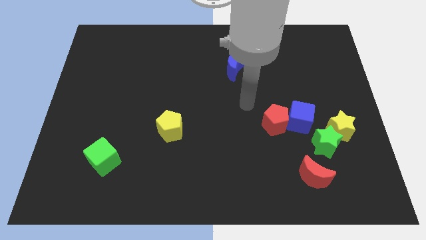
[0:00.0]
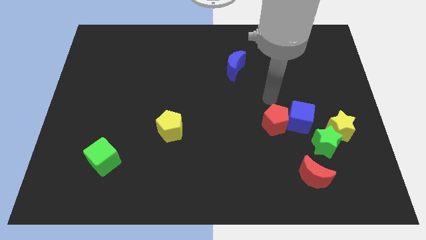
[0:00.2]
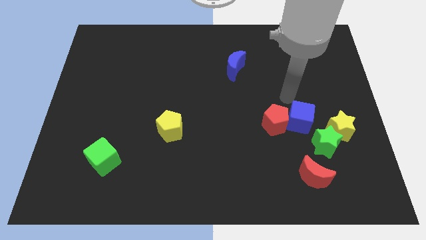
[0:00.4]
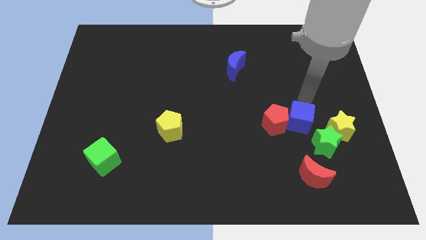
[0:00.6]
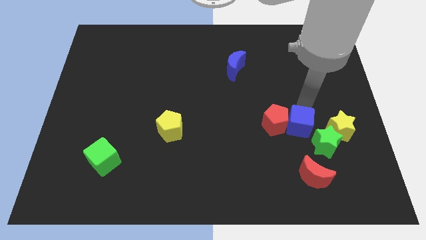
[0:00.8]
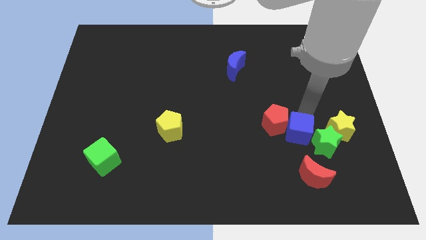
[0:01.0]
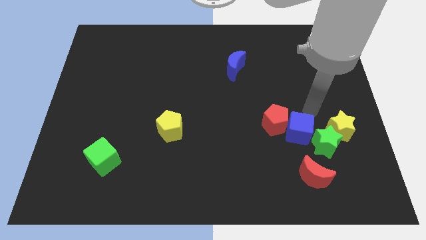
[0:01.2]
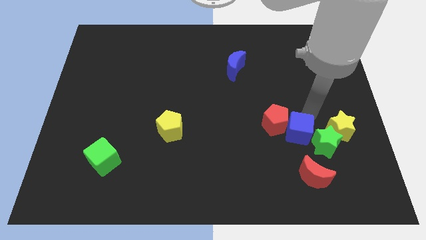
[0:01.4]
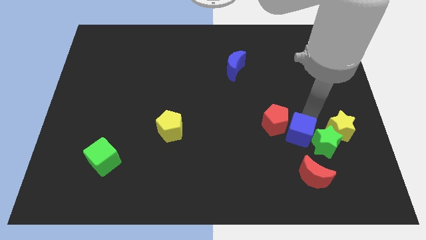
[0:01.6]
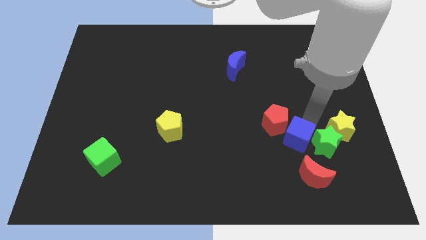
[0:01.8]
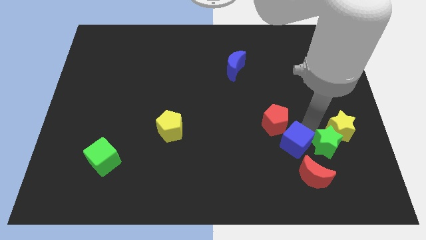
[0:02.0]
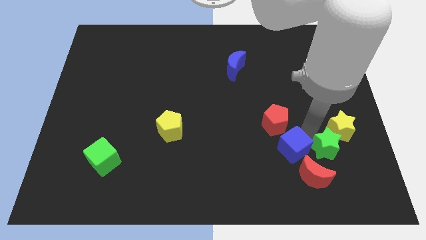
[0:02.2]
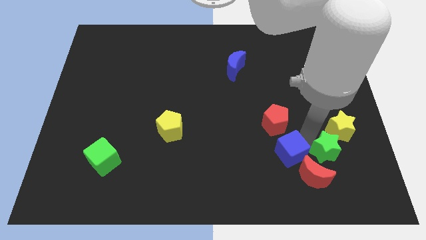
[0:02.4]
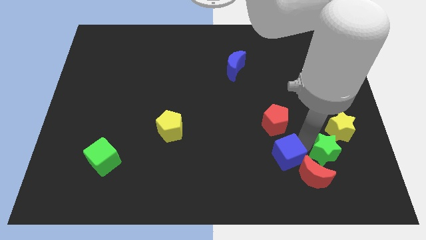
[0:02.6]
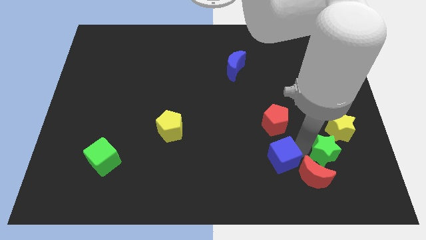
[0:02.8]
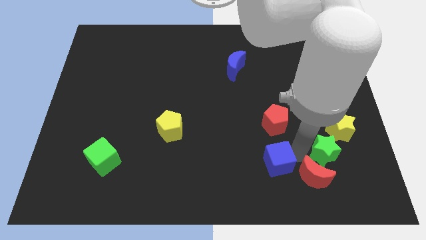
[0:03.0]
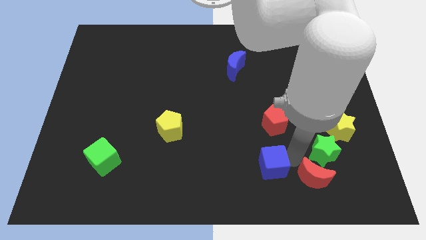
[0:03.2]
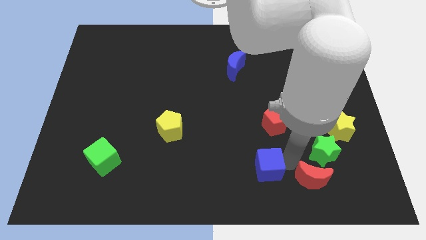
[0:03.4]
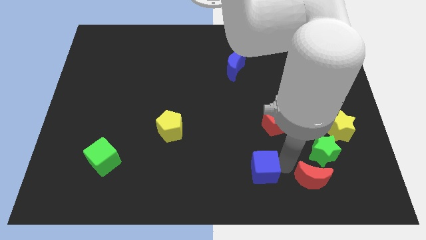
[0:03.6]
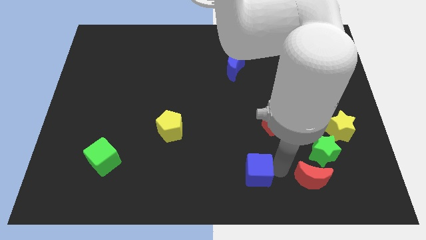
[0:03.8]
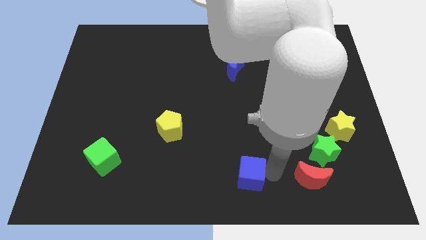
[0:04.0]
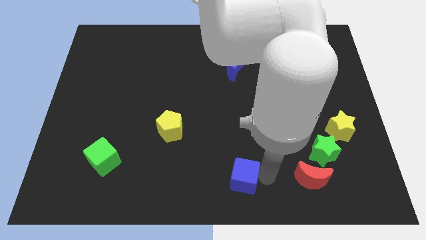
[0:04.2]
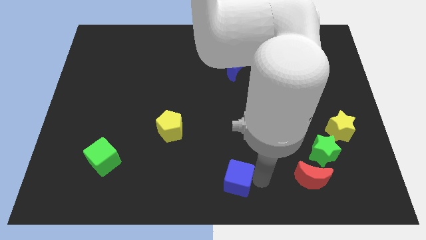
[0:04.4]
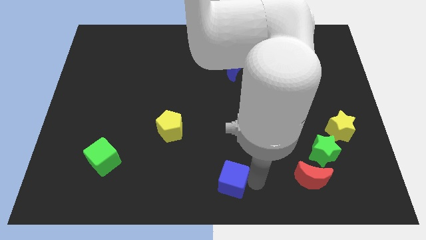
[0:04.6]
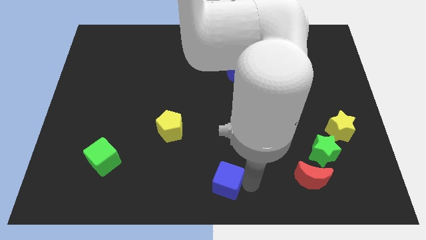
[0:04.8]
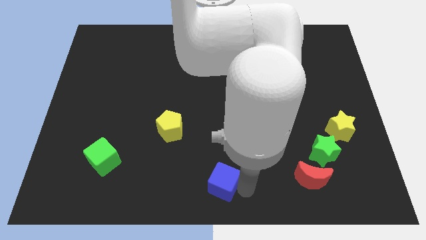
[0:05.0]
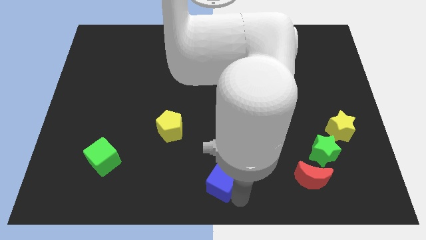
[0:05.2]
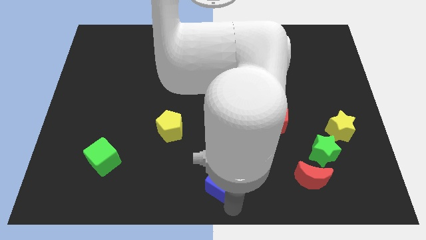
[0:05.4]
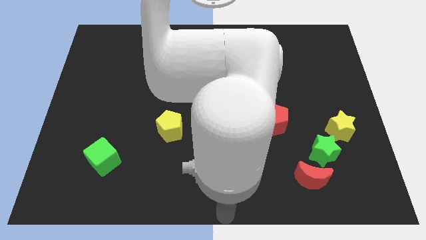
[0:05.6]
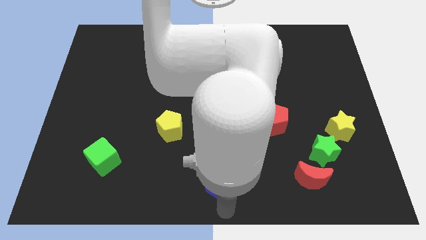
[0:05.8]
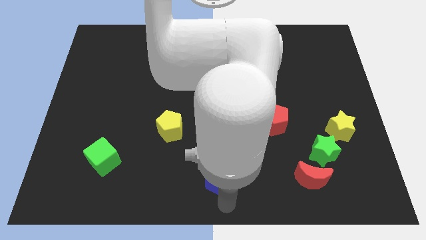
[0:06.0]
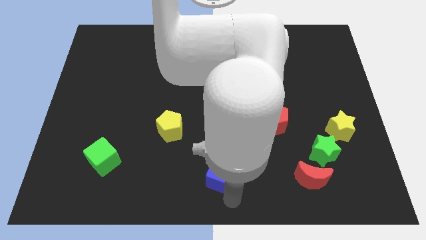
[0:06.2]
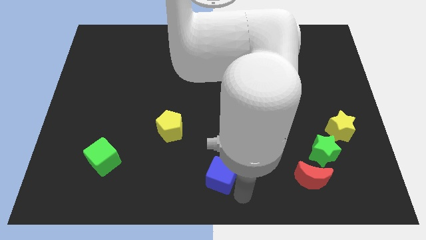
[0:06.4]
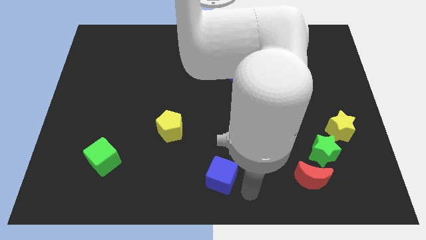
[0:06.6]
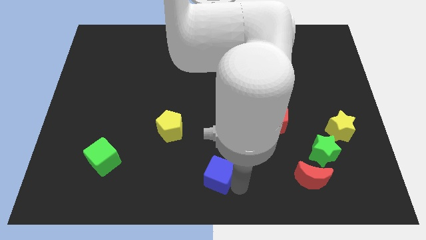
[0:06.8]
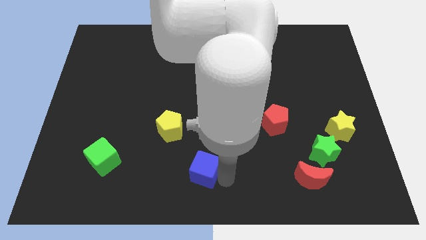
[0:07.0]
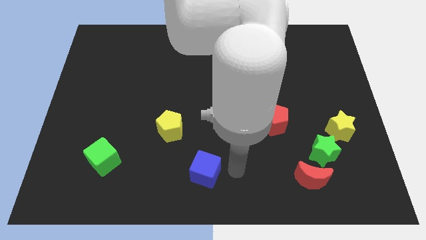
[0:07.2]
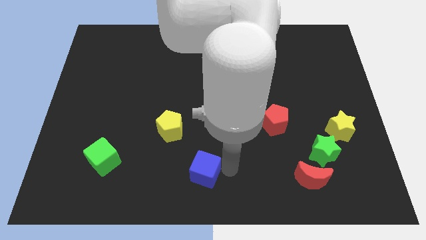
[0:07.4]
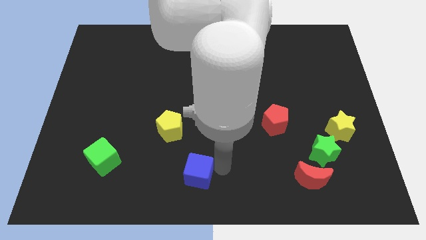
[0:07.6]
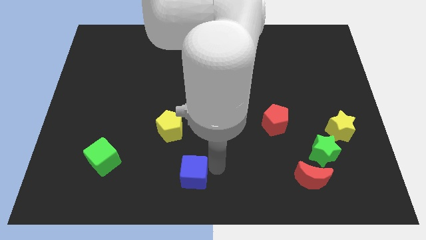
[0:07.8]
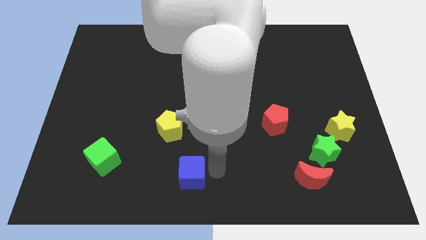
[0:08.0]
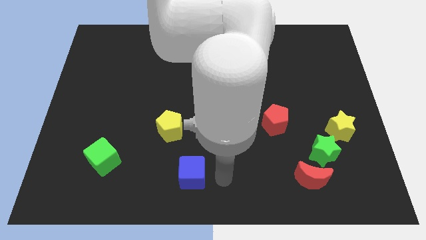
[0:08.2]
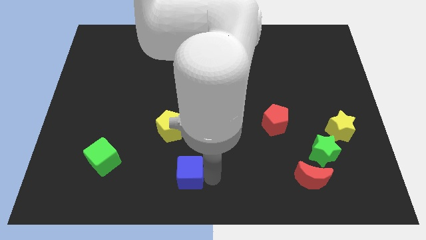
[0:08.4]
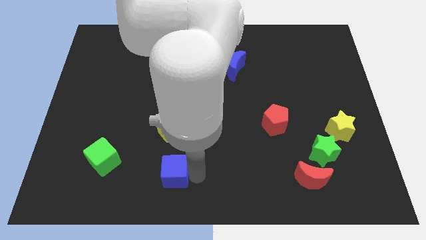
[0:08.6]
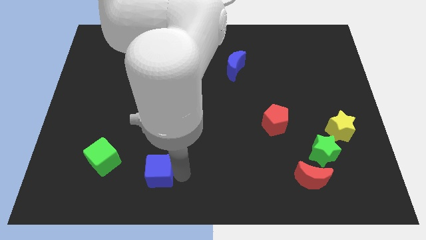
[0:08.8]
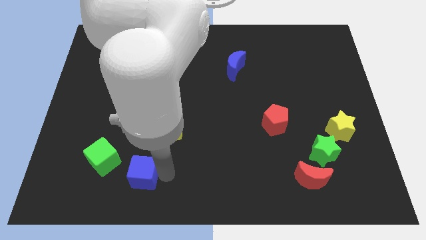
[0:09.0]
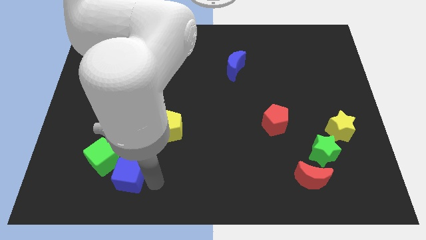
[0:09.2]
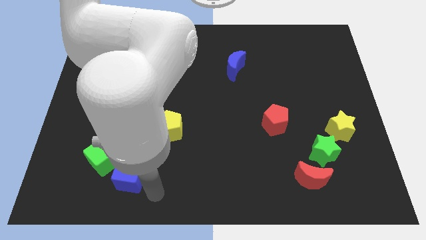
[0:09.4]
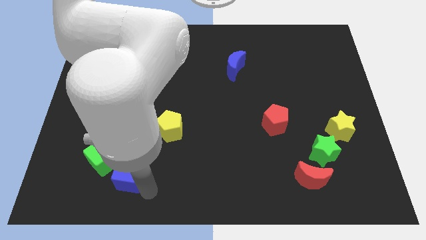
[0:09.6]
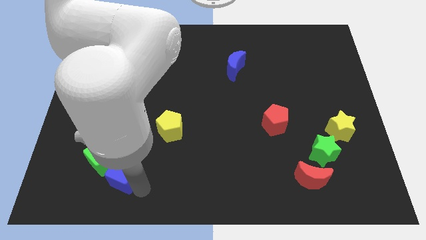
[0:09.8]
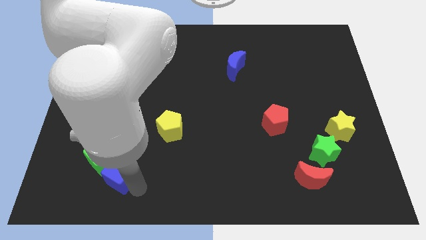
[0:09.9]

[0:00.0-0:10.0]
move the blue cube next to the green cube

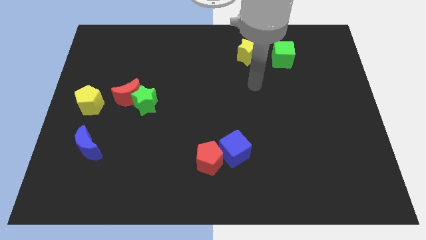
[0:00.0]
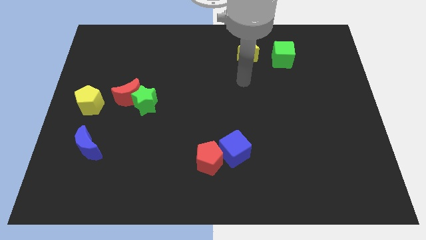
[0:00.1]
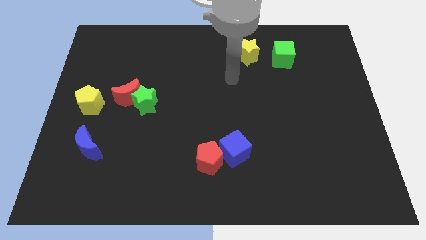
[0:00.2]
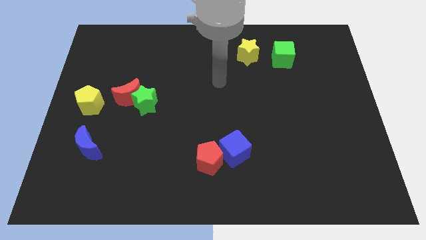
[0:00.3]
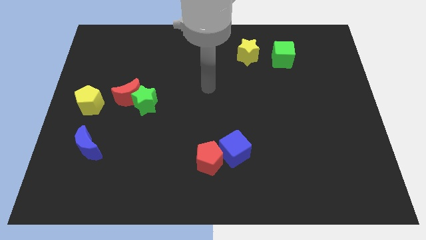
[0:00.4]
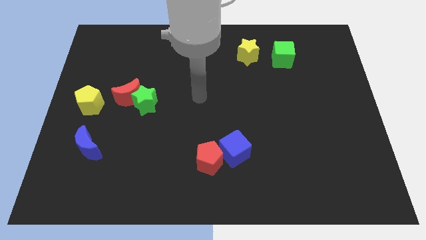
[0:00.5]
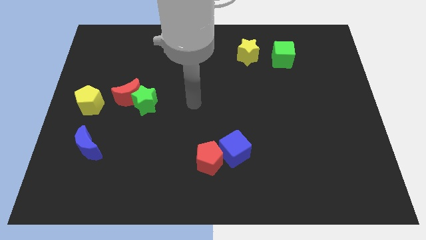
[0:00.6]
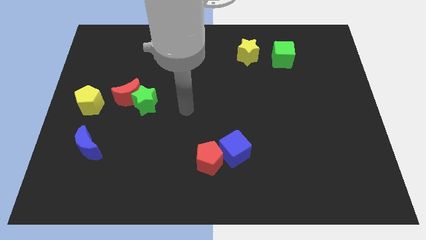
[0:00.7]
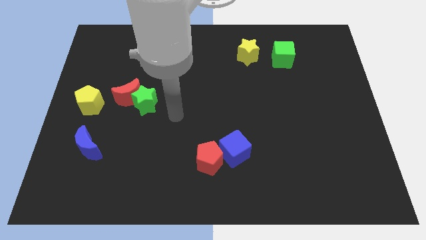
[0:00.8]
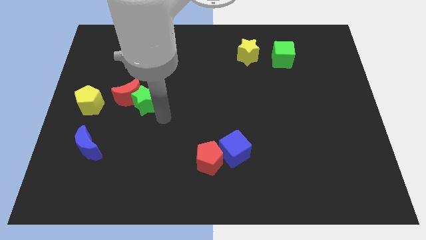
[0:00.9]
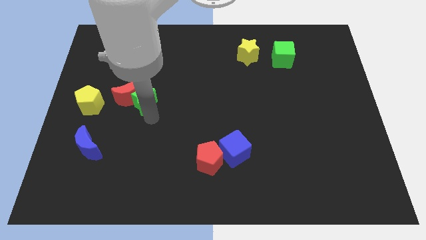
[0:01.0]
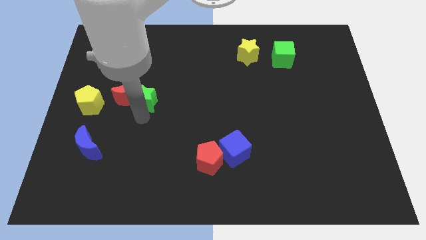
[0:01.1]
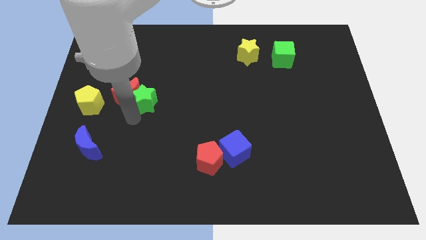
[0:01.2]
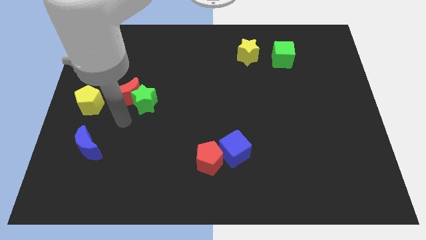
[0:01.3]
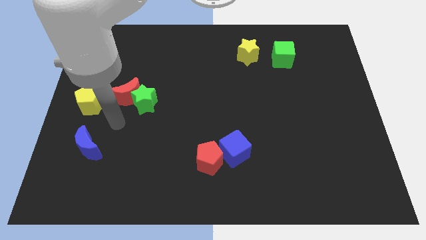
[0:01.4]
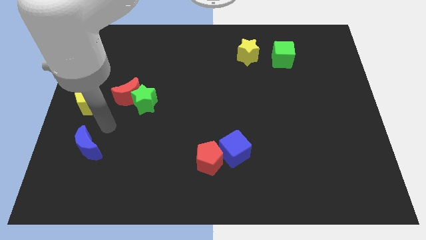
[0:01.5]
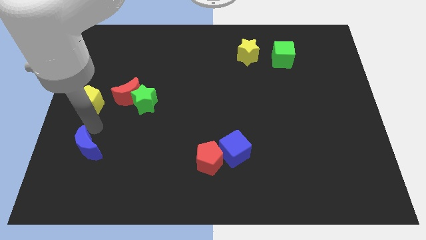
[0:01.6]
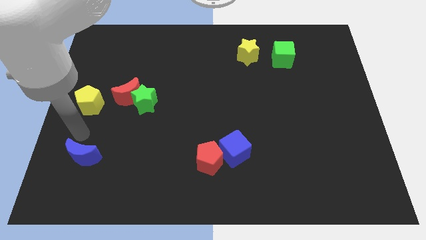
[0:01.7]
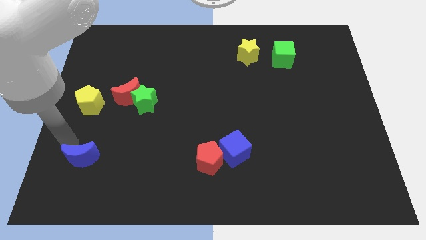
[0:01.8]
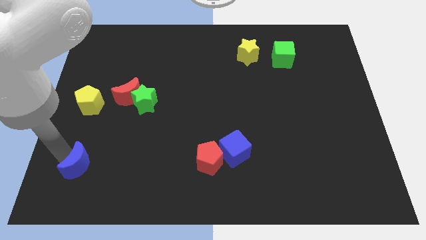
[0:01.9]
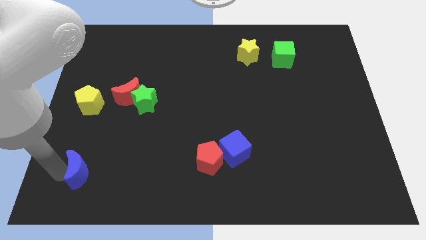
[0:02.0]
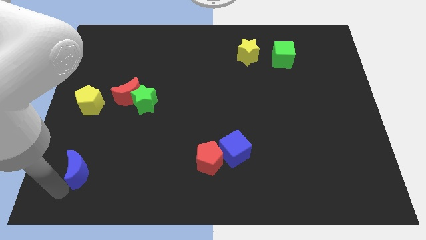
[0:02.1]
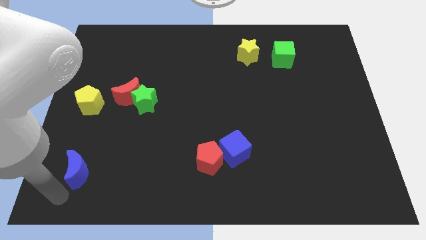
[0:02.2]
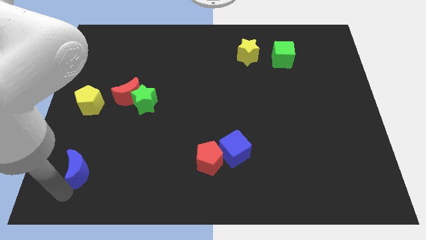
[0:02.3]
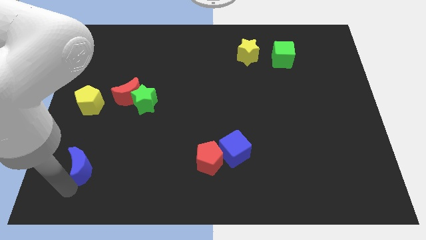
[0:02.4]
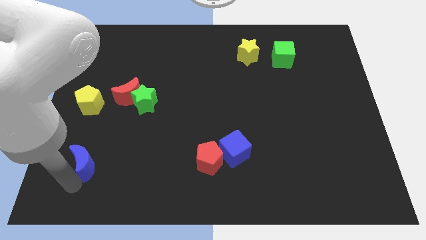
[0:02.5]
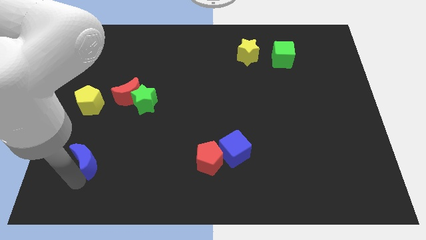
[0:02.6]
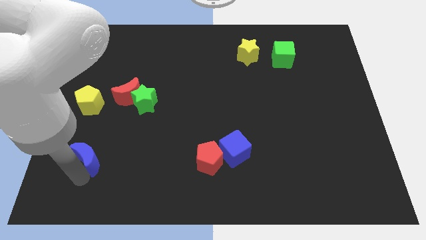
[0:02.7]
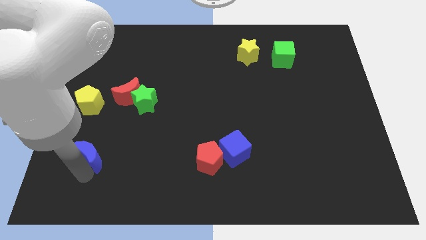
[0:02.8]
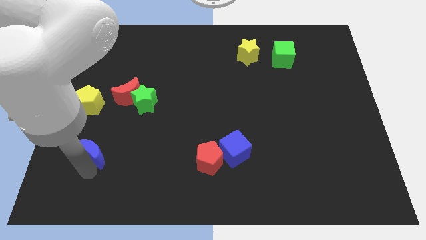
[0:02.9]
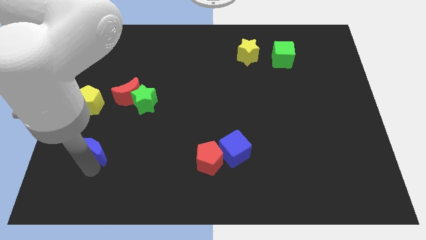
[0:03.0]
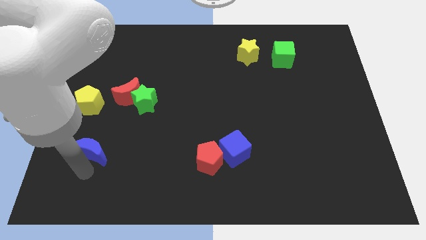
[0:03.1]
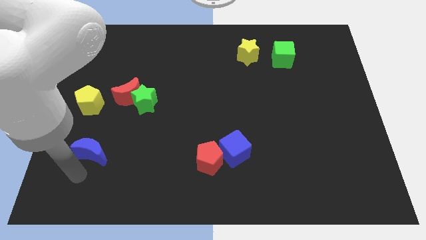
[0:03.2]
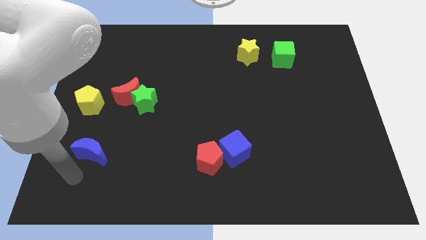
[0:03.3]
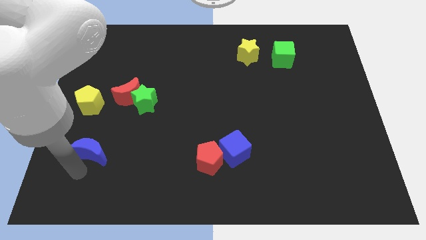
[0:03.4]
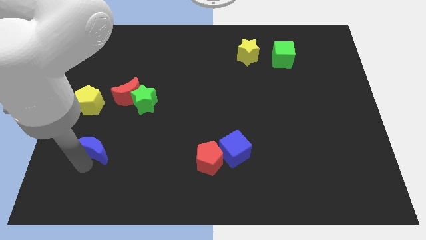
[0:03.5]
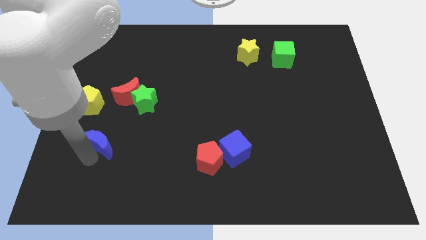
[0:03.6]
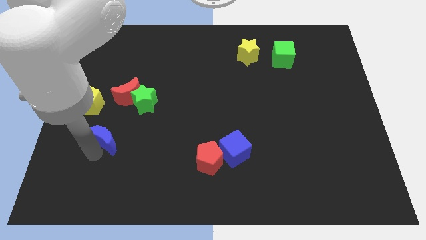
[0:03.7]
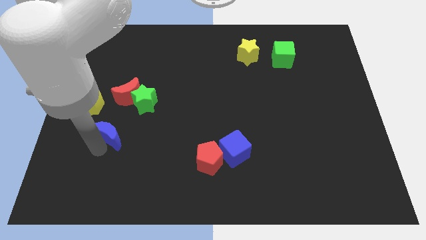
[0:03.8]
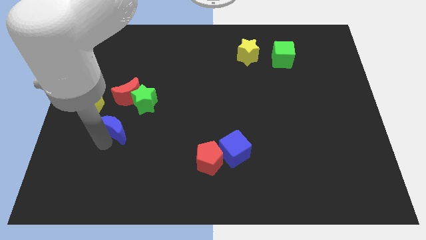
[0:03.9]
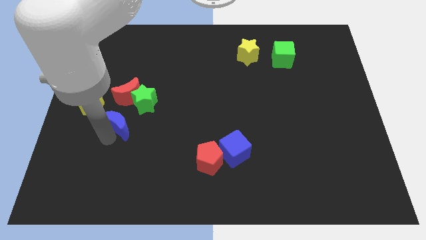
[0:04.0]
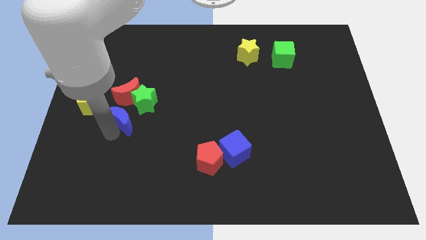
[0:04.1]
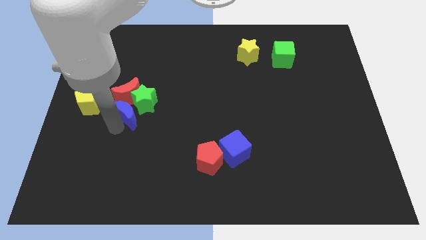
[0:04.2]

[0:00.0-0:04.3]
slide the blue moon to the green star
